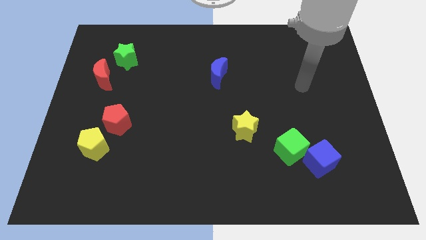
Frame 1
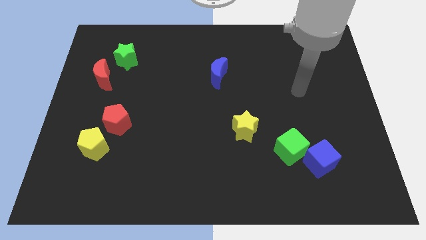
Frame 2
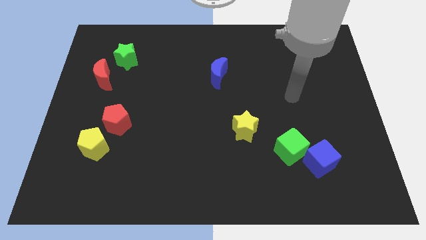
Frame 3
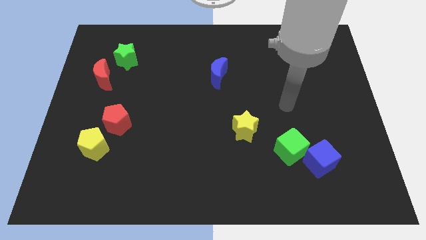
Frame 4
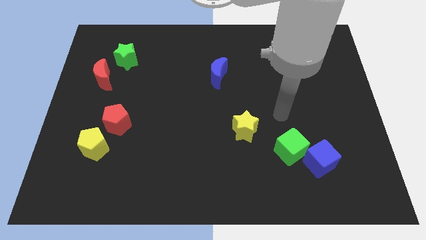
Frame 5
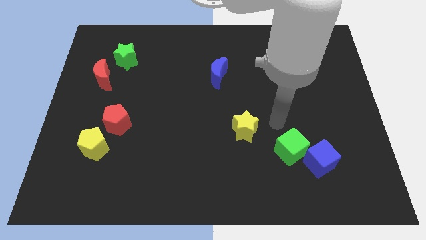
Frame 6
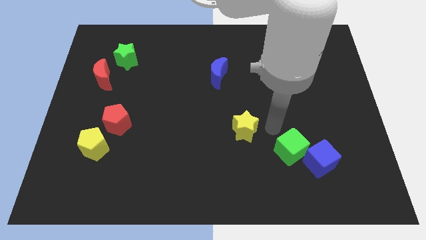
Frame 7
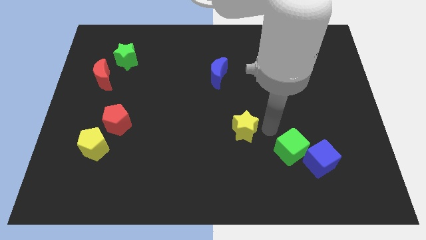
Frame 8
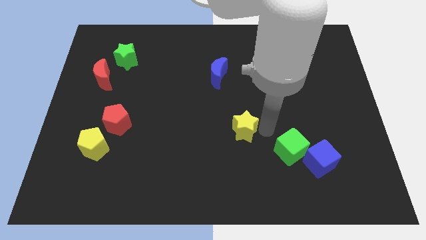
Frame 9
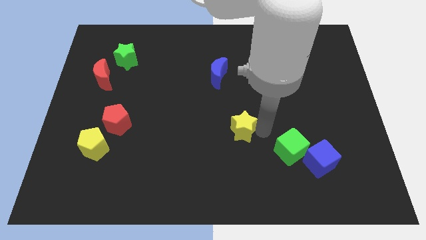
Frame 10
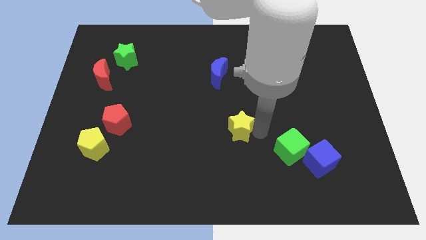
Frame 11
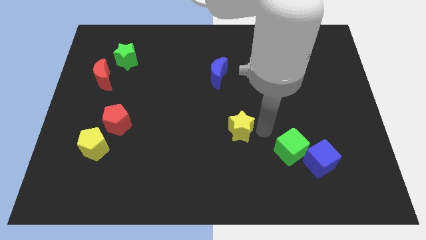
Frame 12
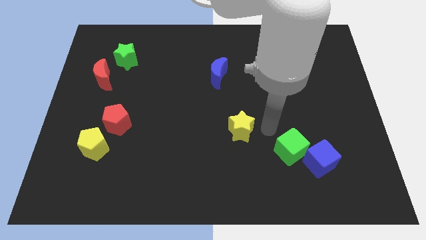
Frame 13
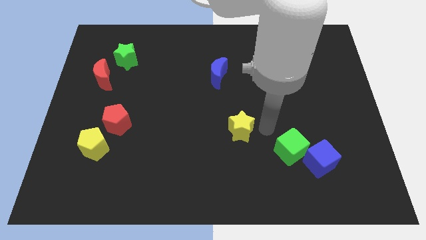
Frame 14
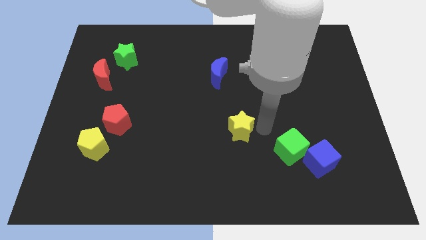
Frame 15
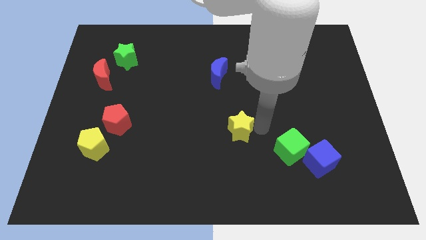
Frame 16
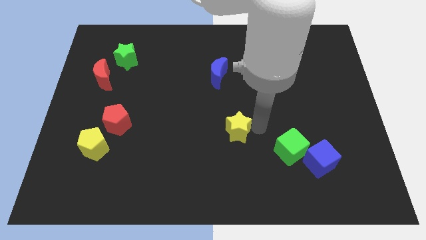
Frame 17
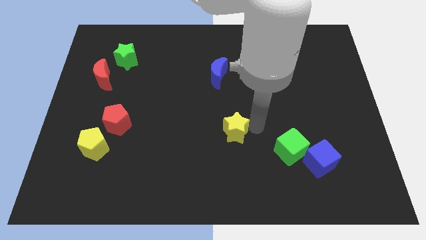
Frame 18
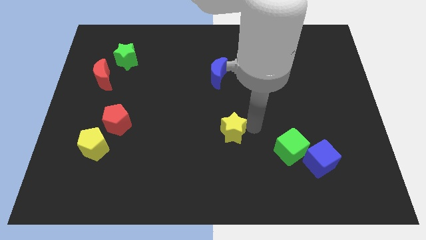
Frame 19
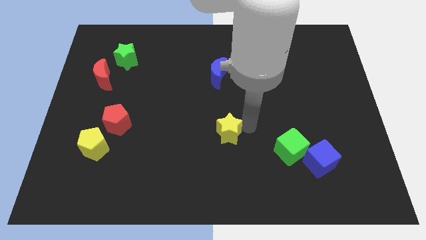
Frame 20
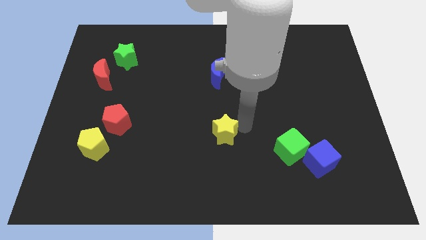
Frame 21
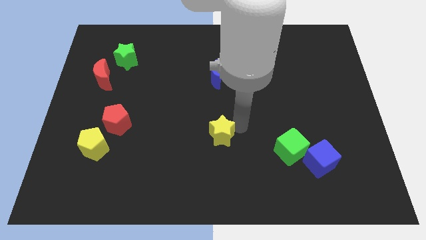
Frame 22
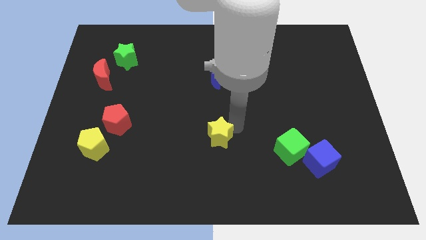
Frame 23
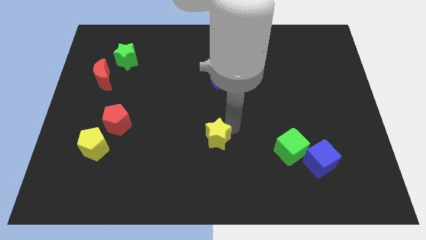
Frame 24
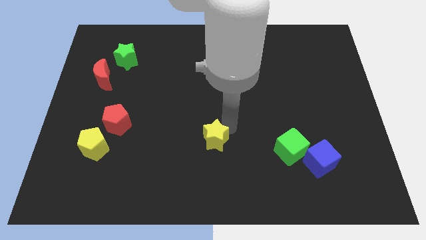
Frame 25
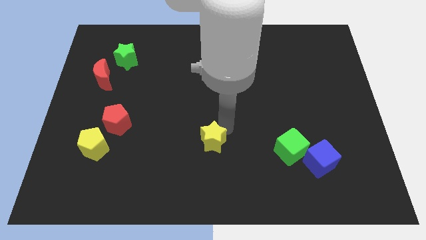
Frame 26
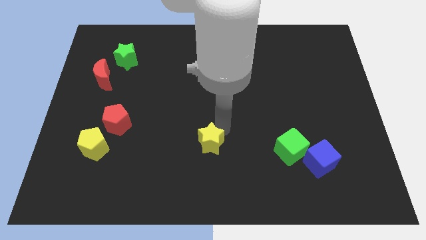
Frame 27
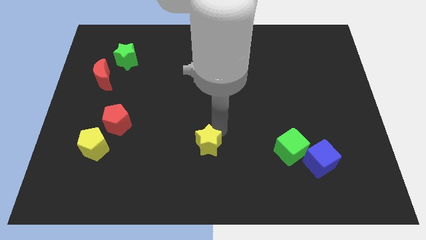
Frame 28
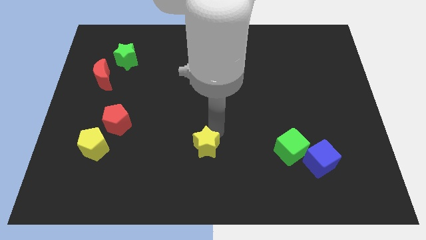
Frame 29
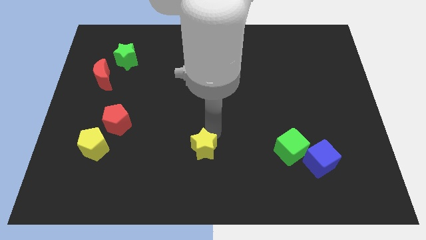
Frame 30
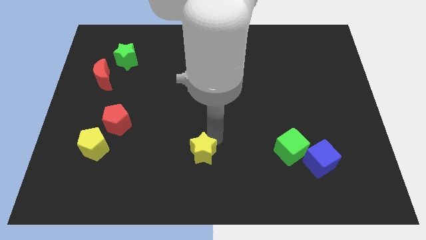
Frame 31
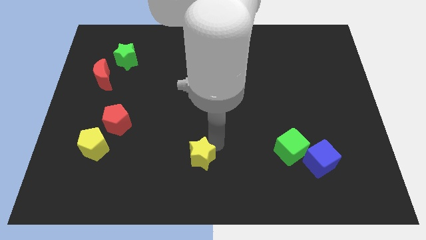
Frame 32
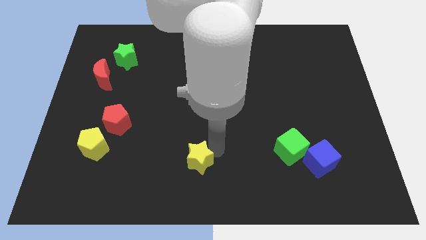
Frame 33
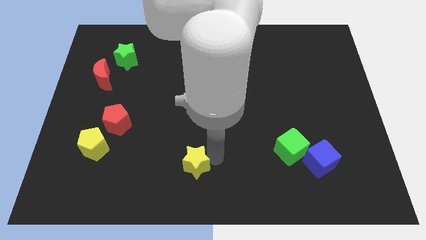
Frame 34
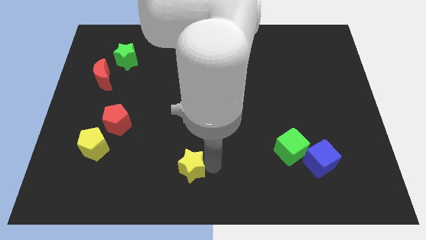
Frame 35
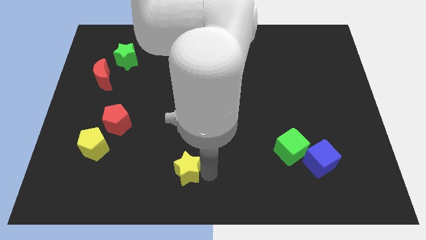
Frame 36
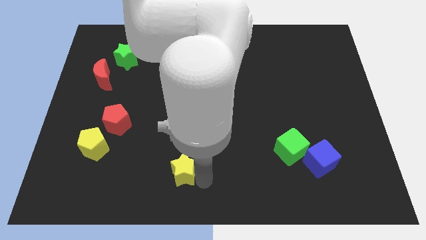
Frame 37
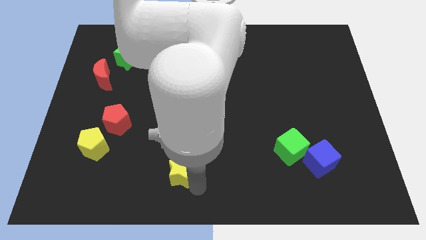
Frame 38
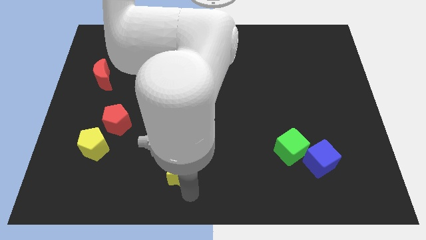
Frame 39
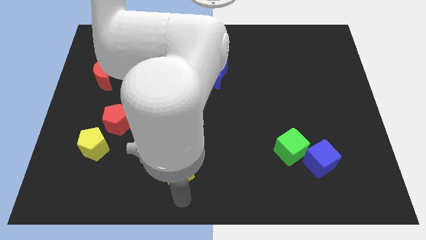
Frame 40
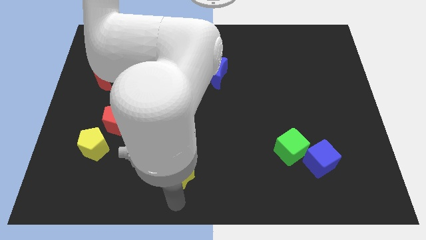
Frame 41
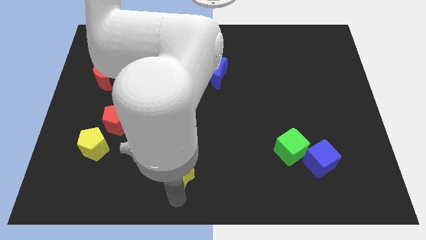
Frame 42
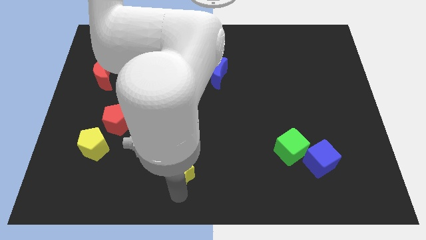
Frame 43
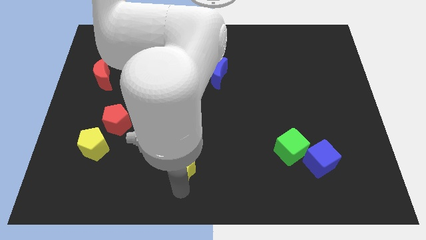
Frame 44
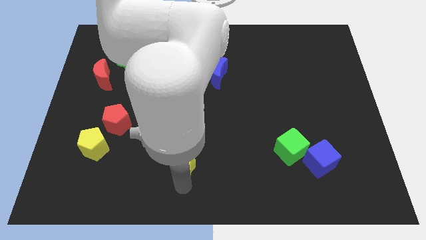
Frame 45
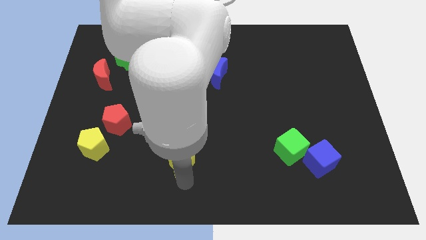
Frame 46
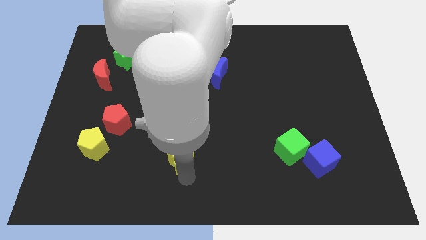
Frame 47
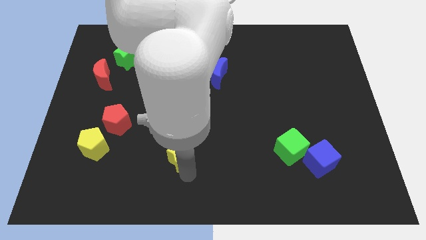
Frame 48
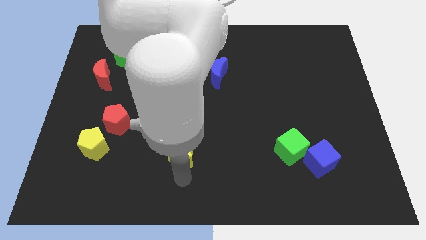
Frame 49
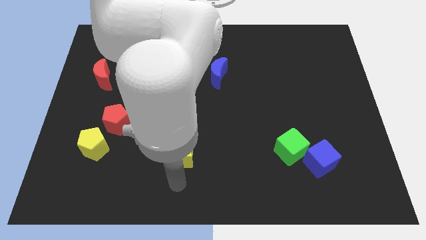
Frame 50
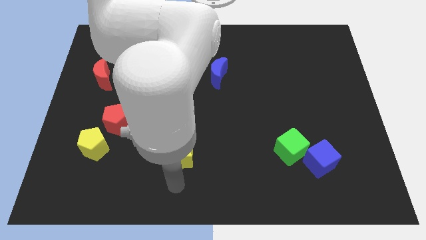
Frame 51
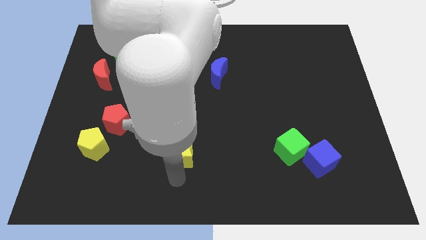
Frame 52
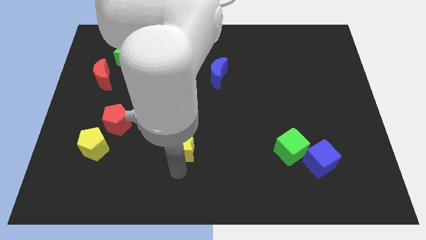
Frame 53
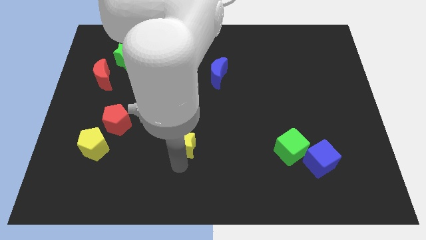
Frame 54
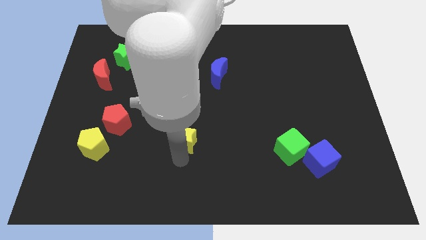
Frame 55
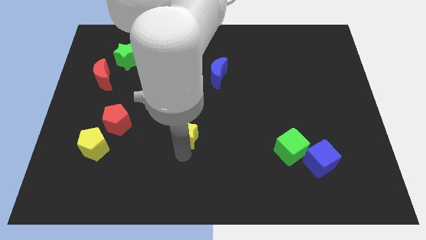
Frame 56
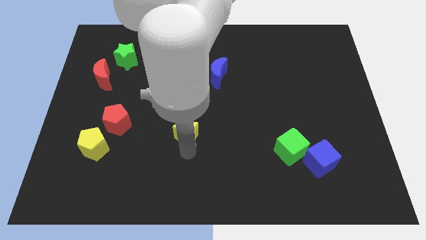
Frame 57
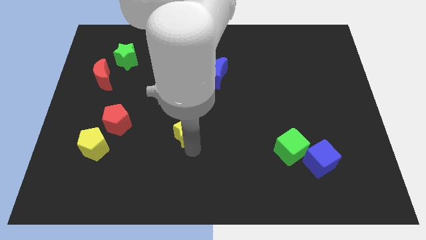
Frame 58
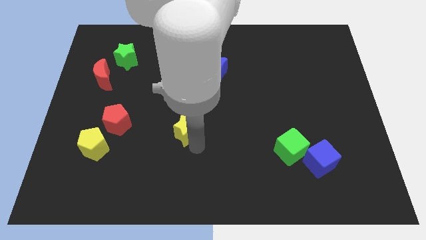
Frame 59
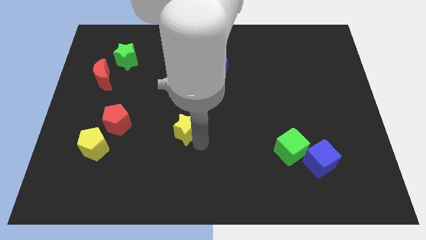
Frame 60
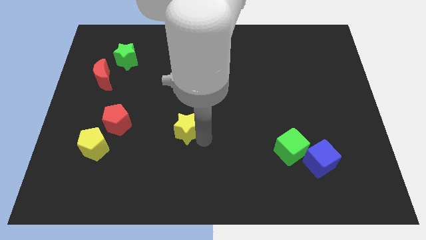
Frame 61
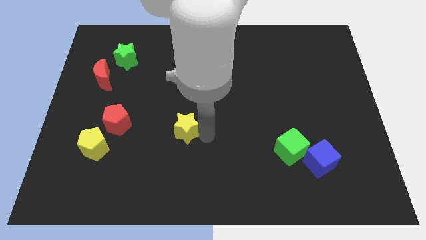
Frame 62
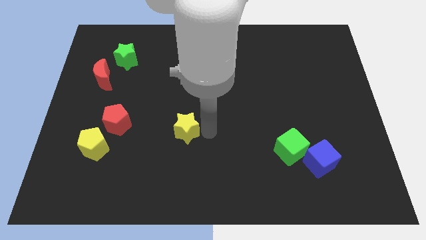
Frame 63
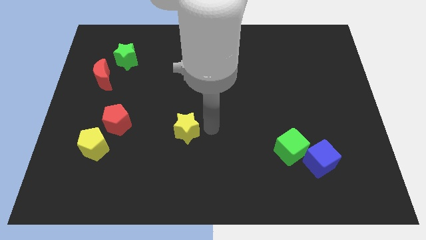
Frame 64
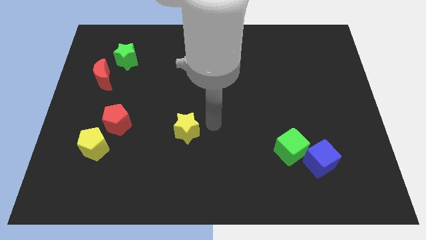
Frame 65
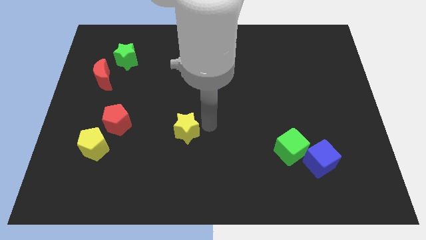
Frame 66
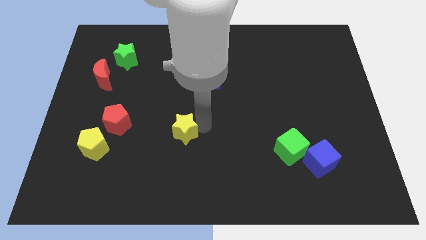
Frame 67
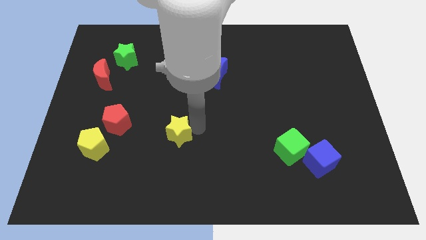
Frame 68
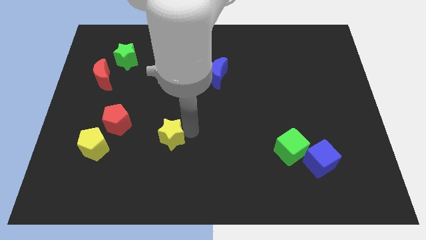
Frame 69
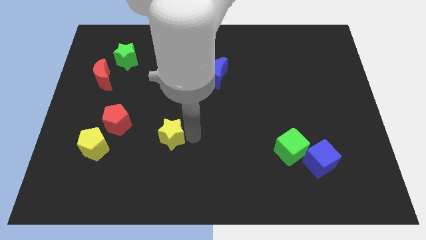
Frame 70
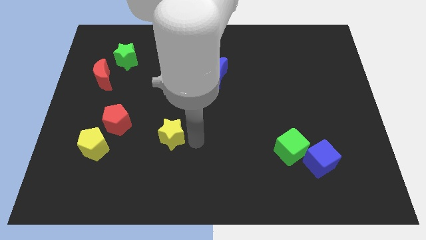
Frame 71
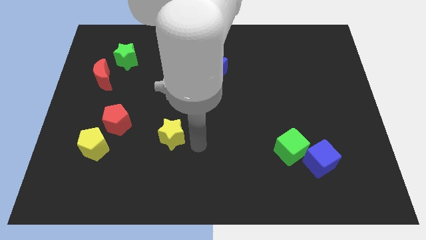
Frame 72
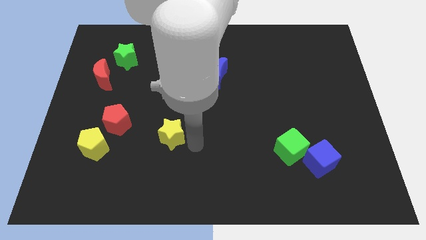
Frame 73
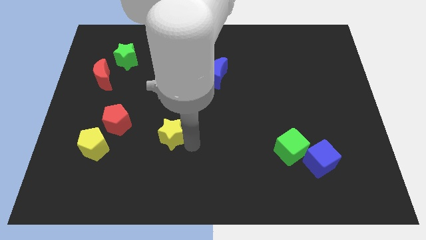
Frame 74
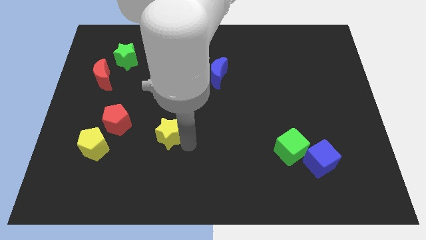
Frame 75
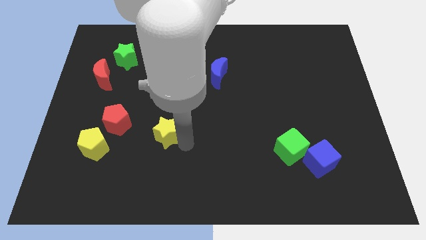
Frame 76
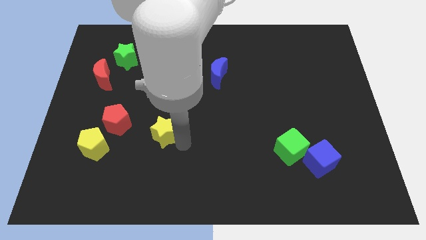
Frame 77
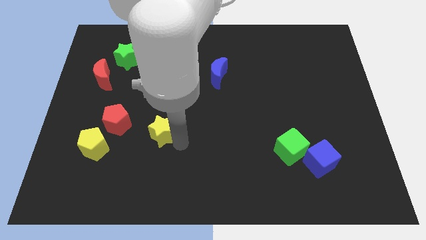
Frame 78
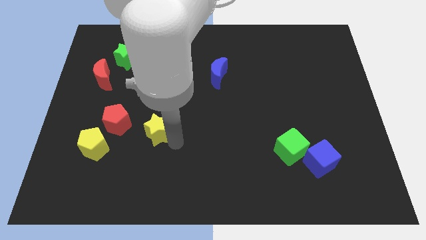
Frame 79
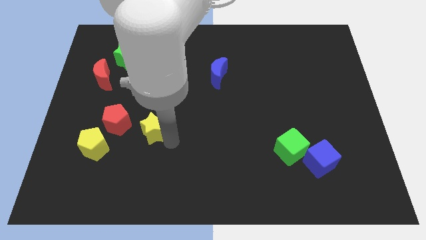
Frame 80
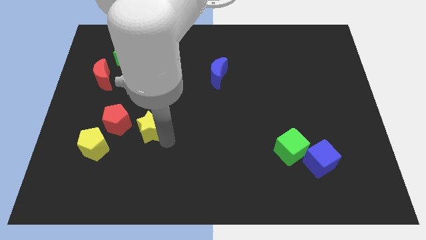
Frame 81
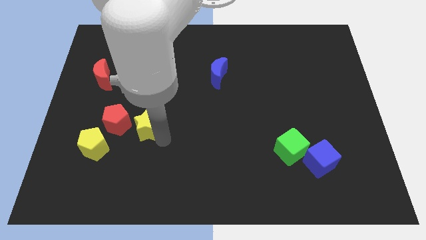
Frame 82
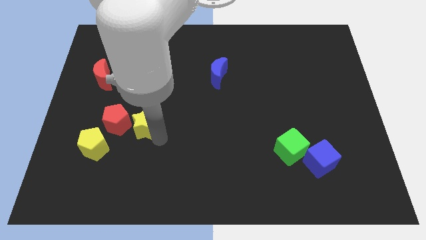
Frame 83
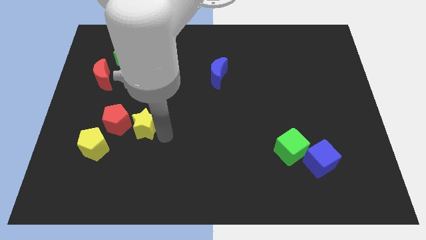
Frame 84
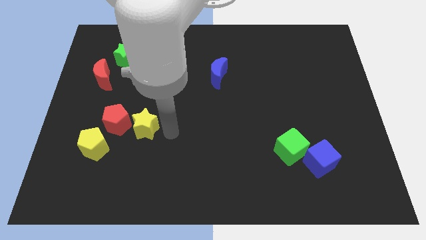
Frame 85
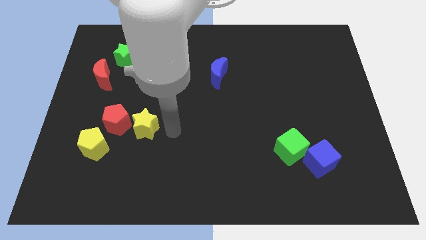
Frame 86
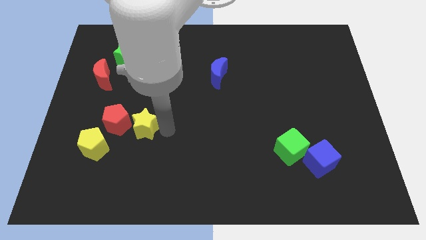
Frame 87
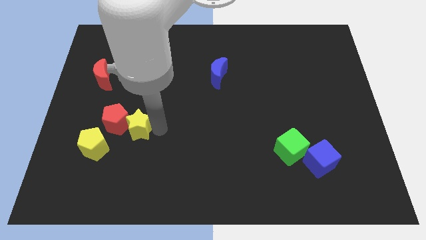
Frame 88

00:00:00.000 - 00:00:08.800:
push the yellow star to the red pentagon
